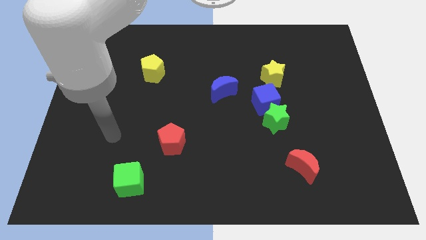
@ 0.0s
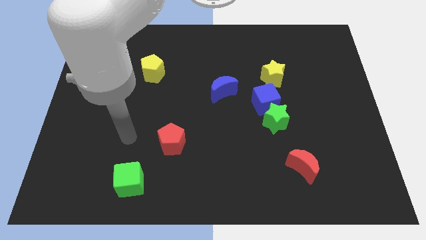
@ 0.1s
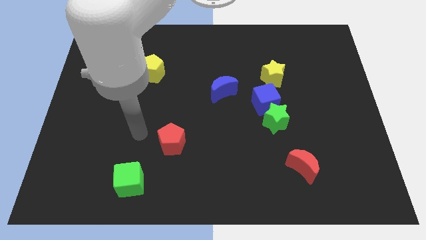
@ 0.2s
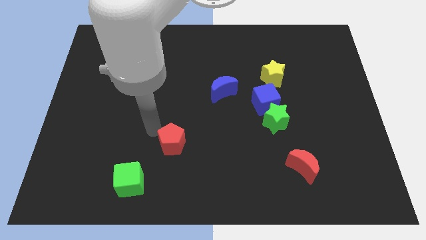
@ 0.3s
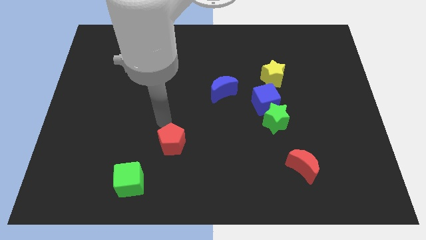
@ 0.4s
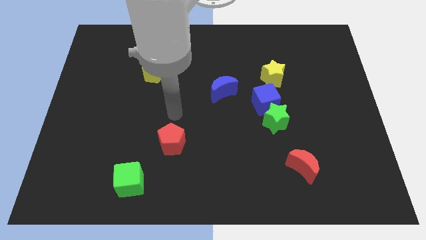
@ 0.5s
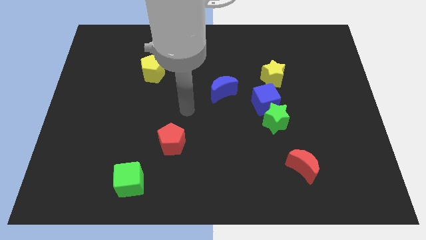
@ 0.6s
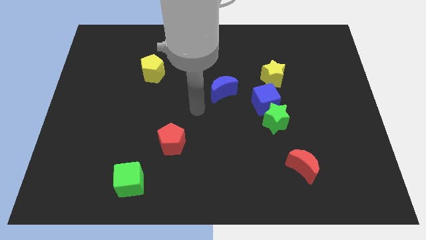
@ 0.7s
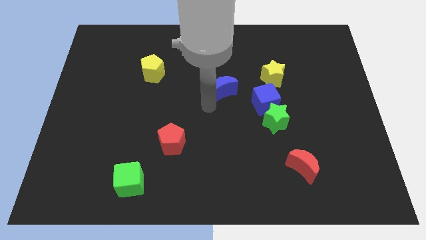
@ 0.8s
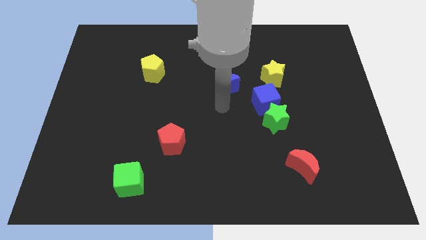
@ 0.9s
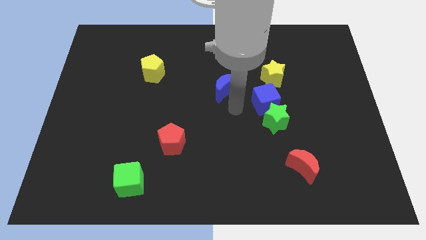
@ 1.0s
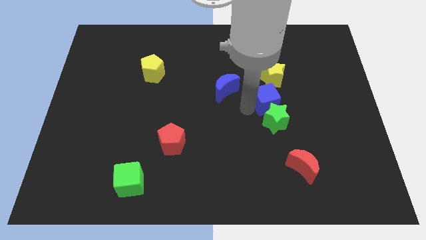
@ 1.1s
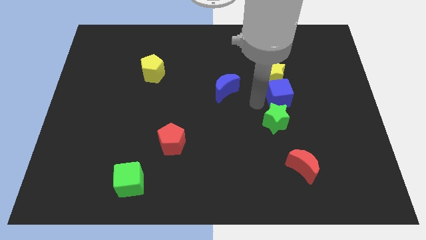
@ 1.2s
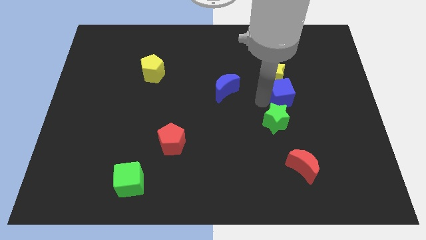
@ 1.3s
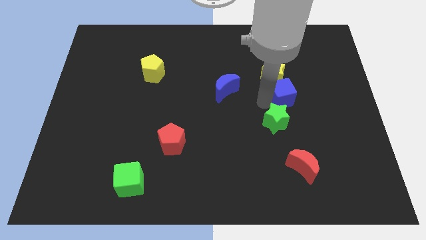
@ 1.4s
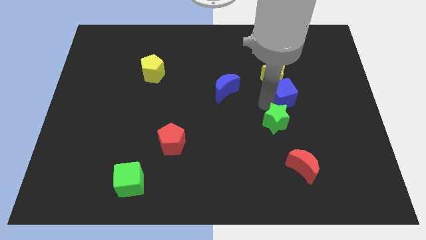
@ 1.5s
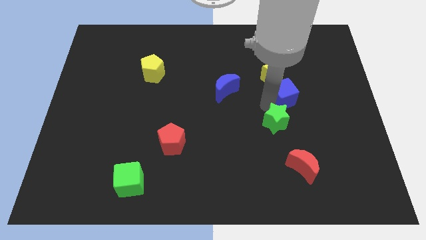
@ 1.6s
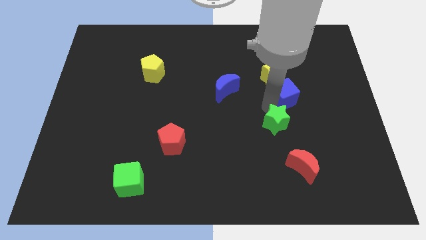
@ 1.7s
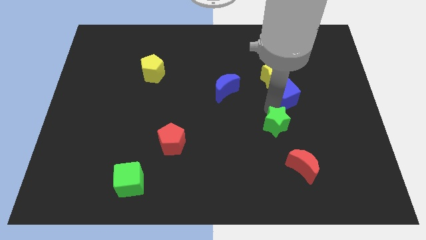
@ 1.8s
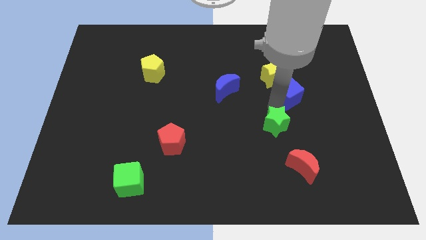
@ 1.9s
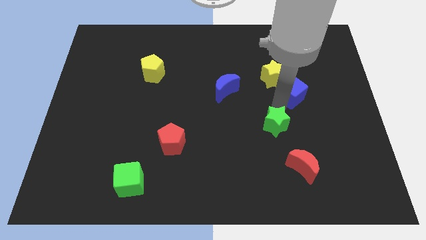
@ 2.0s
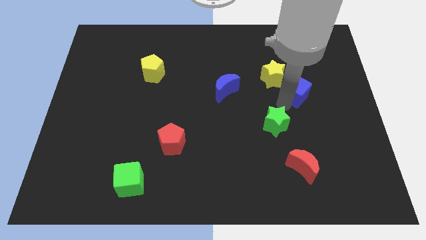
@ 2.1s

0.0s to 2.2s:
move the green star away from the blue cube

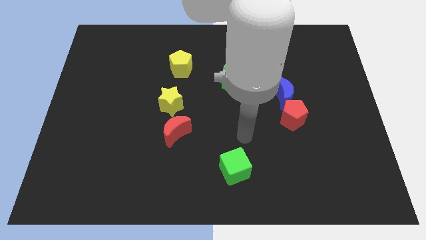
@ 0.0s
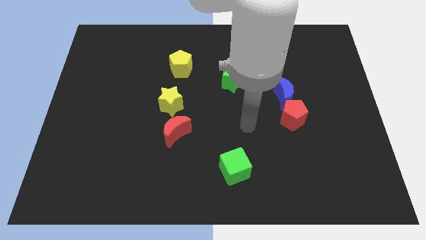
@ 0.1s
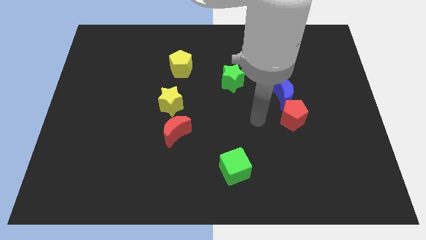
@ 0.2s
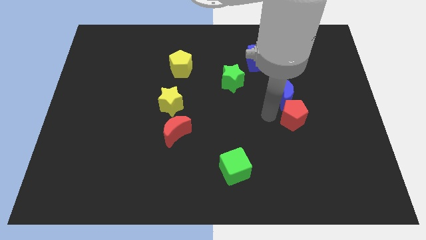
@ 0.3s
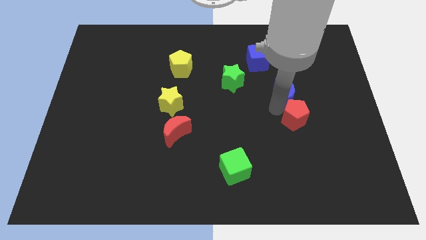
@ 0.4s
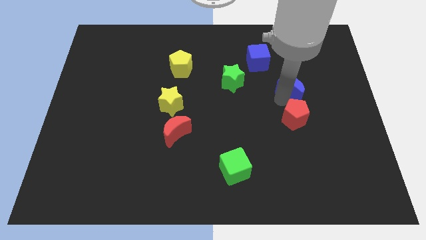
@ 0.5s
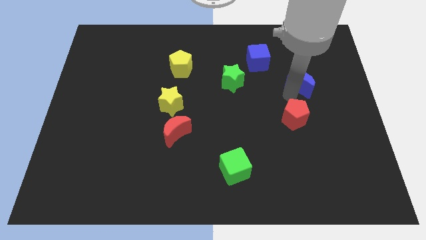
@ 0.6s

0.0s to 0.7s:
pull the red pentagon apart from the blue moon

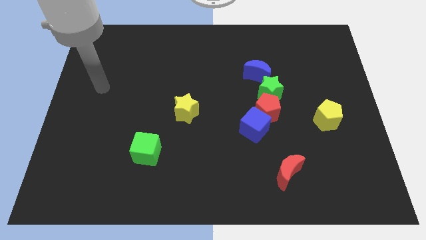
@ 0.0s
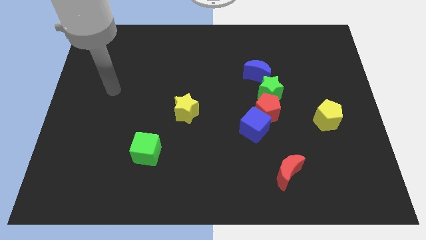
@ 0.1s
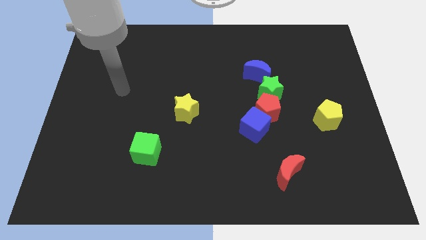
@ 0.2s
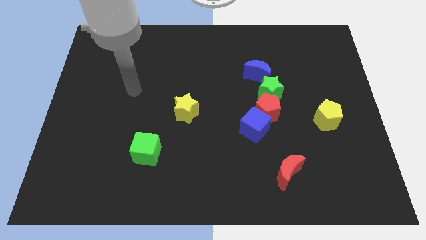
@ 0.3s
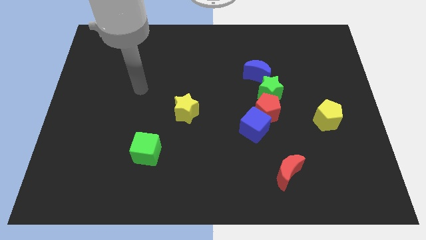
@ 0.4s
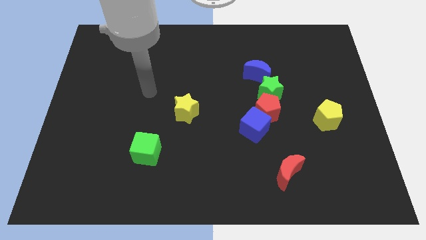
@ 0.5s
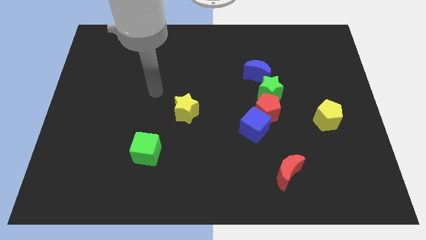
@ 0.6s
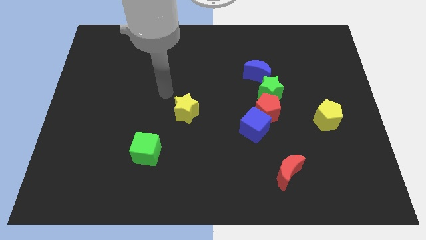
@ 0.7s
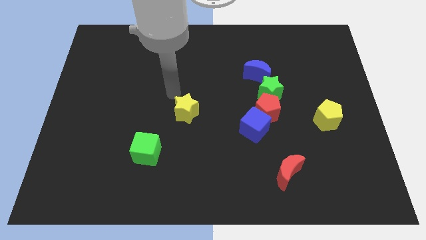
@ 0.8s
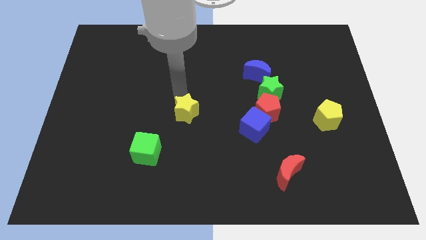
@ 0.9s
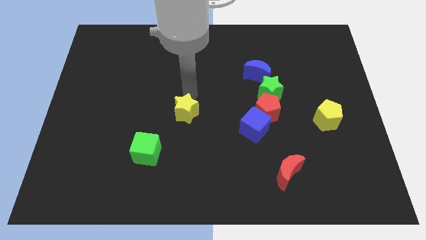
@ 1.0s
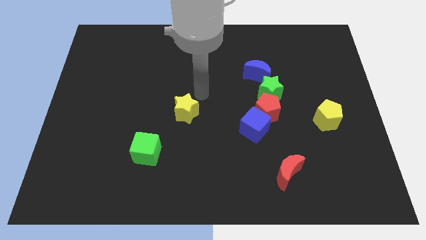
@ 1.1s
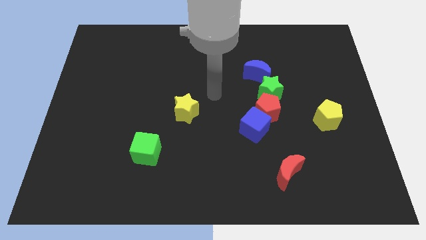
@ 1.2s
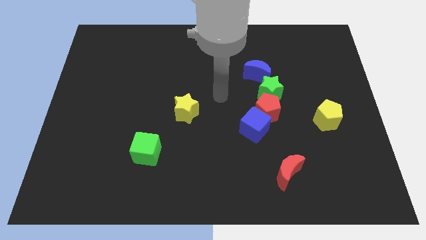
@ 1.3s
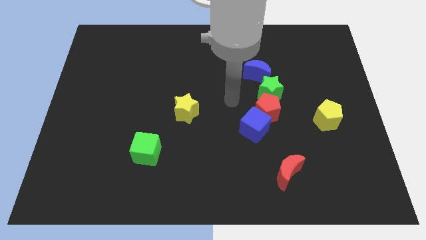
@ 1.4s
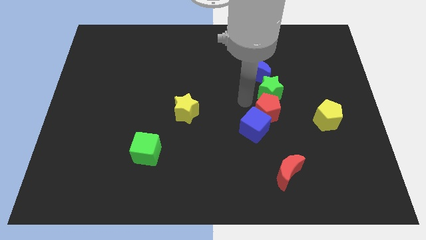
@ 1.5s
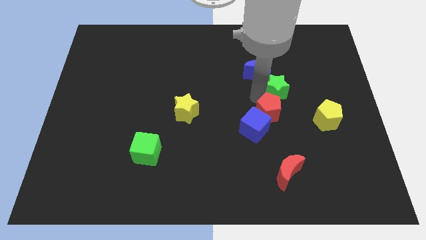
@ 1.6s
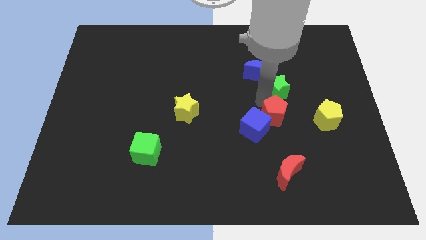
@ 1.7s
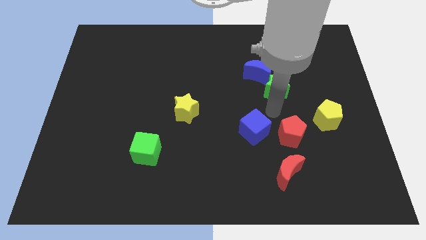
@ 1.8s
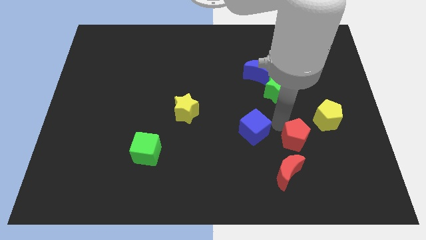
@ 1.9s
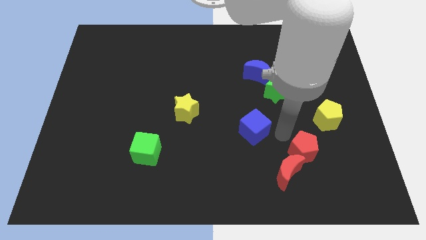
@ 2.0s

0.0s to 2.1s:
pull the blue cube apart from the red pentagon

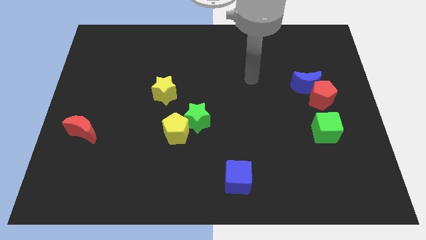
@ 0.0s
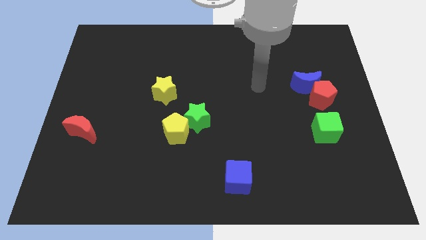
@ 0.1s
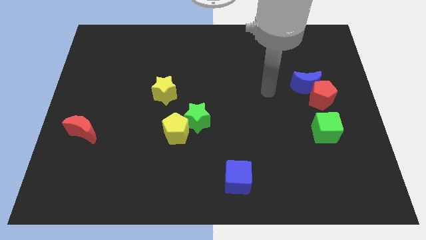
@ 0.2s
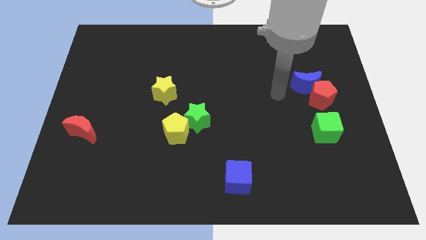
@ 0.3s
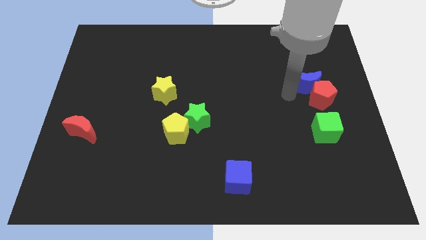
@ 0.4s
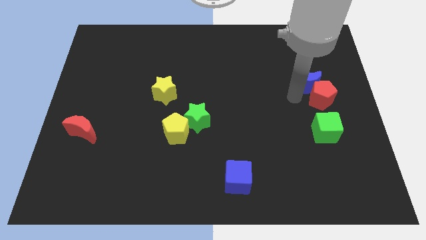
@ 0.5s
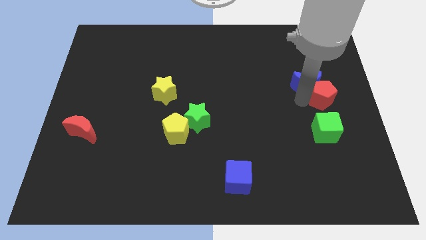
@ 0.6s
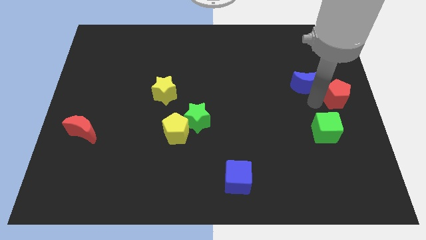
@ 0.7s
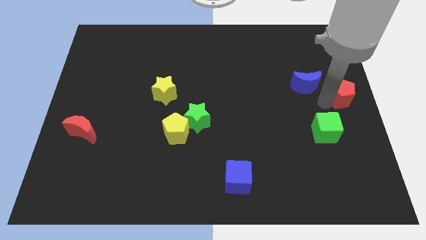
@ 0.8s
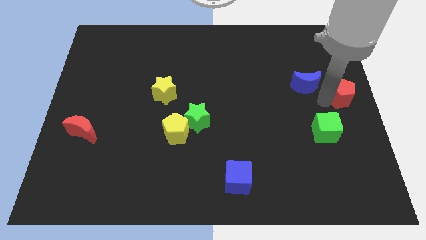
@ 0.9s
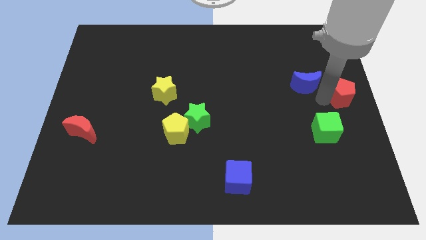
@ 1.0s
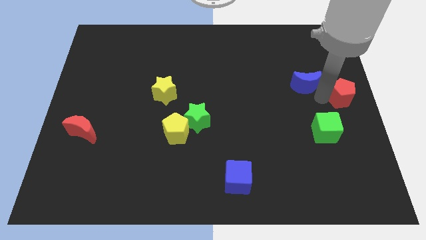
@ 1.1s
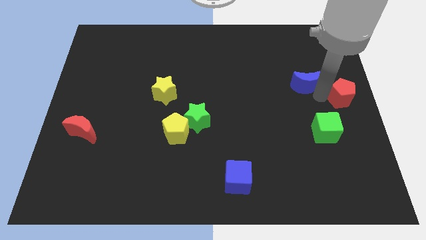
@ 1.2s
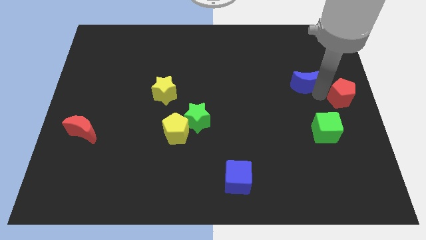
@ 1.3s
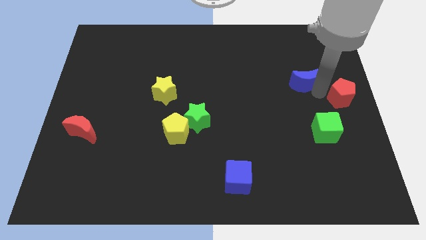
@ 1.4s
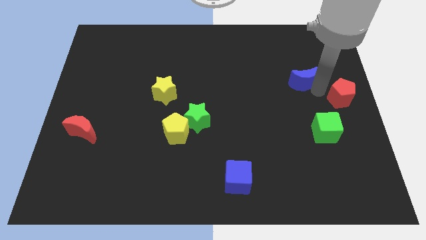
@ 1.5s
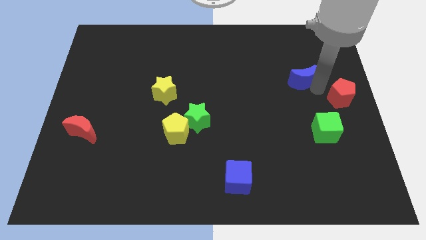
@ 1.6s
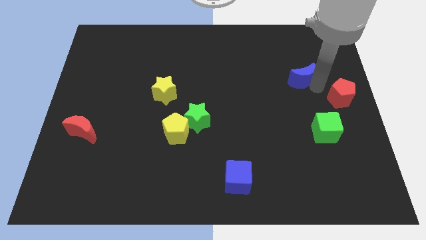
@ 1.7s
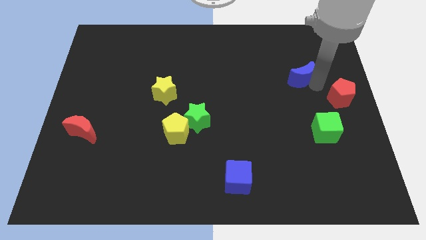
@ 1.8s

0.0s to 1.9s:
separate the blue moon from the red pentagon

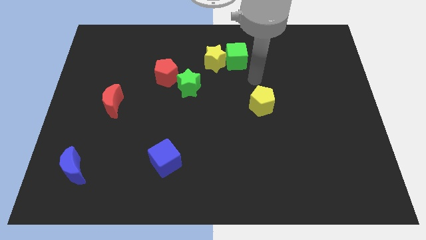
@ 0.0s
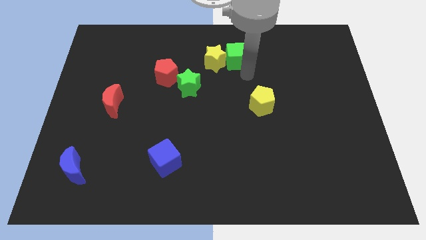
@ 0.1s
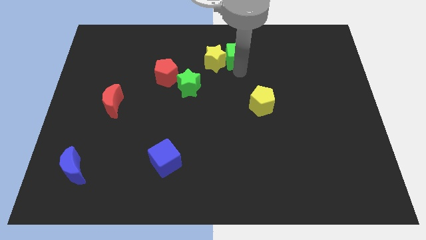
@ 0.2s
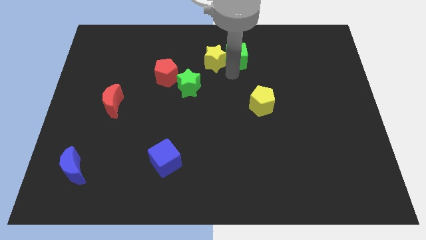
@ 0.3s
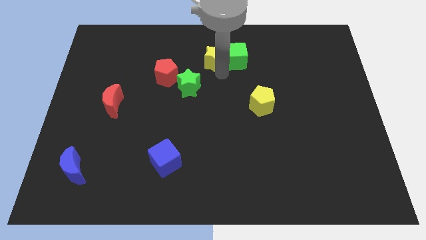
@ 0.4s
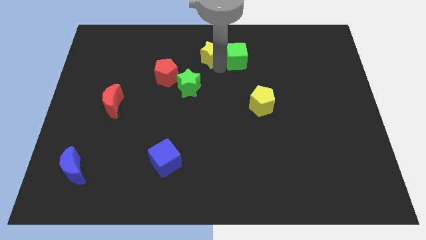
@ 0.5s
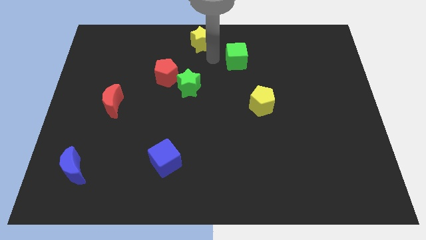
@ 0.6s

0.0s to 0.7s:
separate the green cube from the yellow star

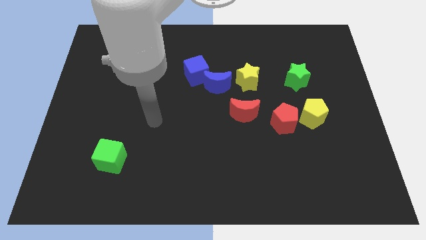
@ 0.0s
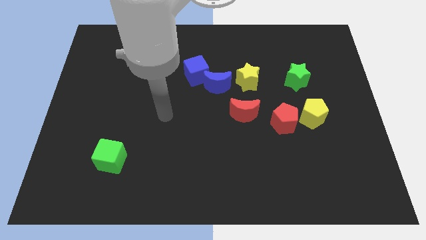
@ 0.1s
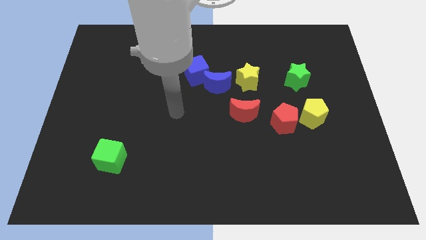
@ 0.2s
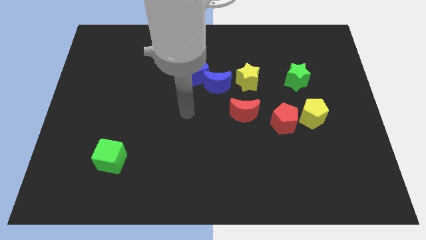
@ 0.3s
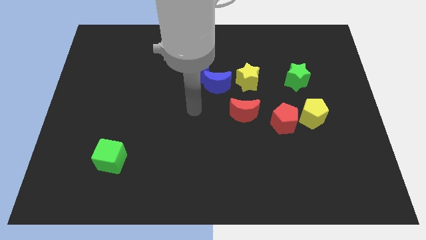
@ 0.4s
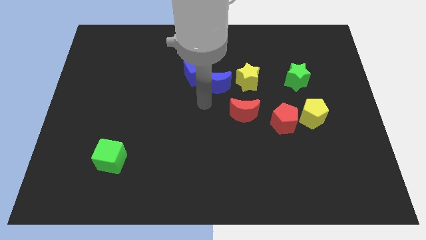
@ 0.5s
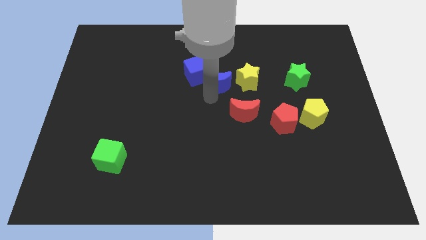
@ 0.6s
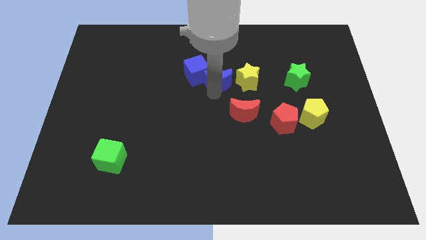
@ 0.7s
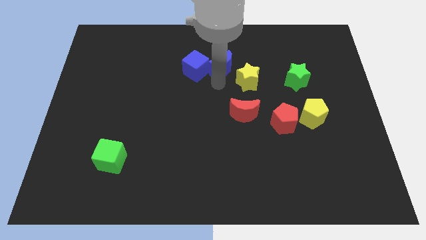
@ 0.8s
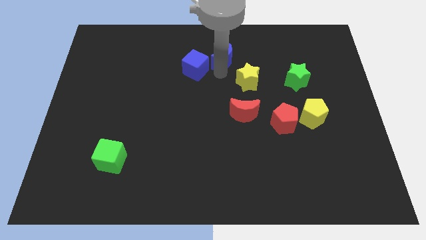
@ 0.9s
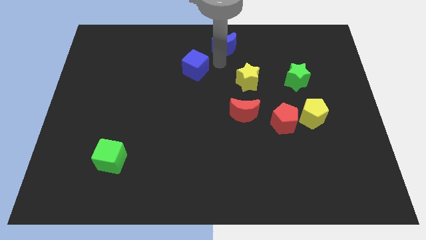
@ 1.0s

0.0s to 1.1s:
separate the blue cube from the blue moon

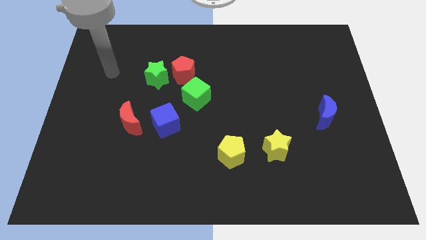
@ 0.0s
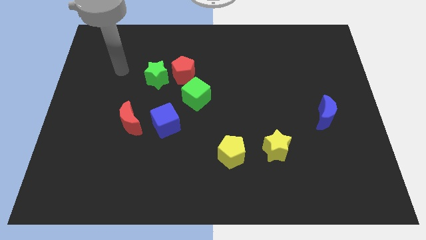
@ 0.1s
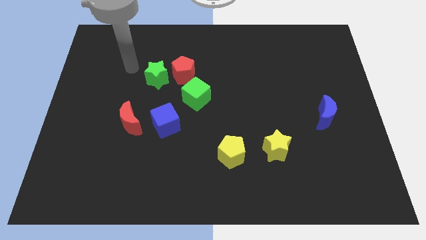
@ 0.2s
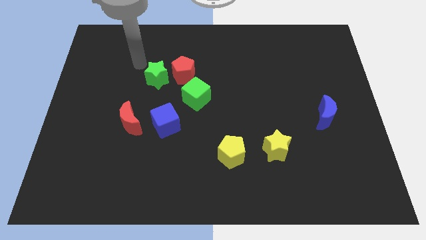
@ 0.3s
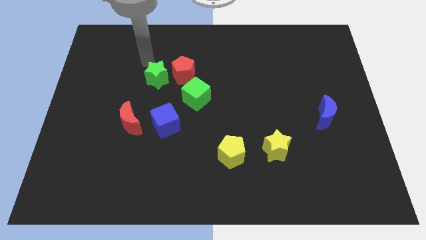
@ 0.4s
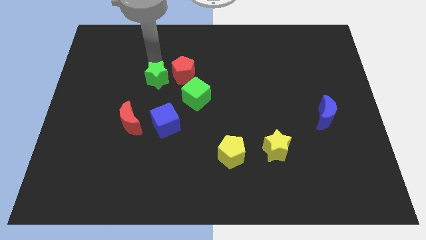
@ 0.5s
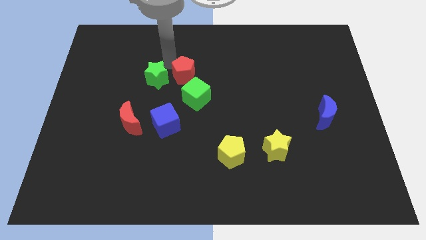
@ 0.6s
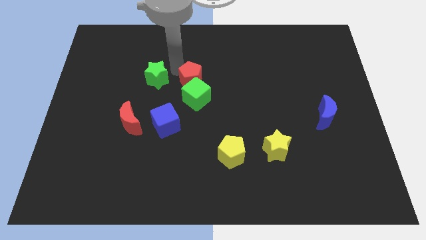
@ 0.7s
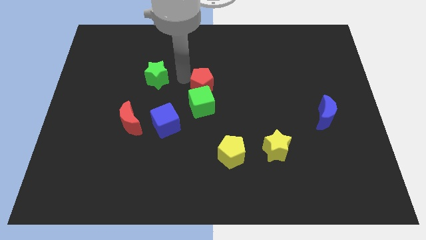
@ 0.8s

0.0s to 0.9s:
pull the green star apart from the red pentagon
